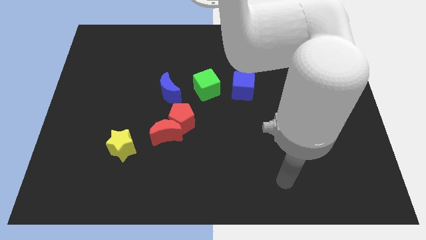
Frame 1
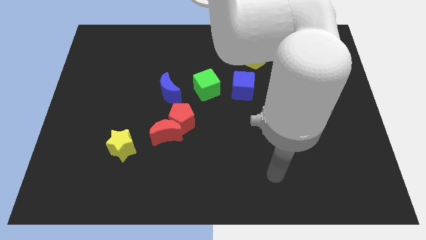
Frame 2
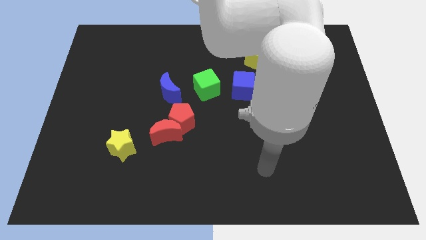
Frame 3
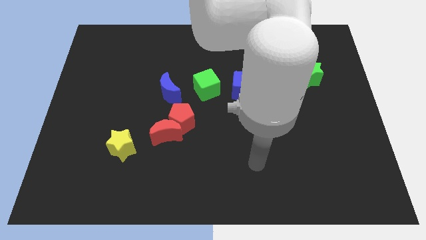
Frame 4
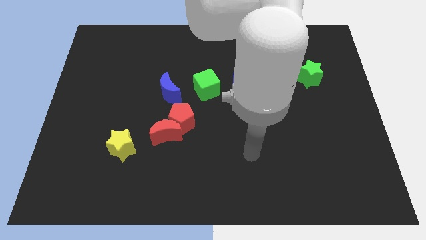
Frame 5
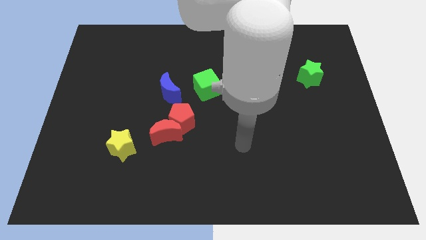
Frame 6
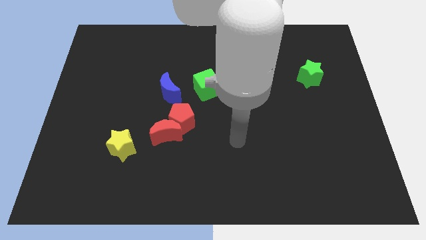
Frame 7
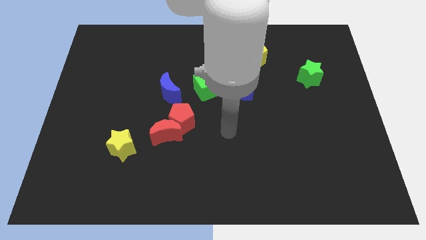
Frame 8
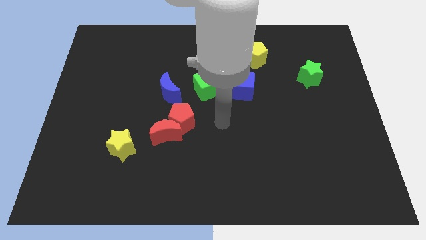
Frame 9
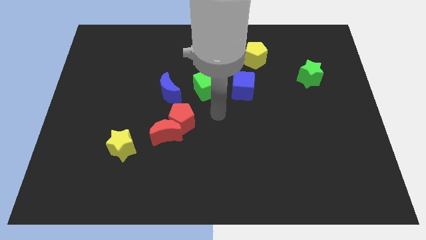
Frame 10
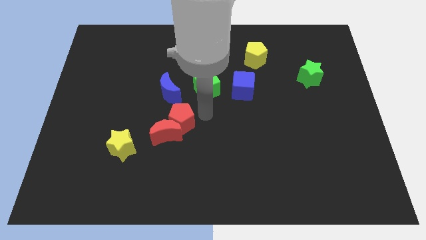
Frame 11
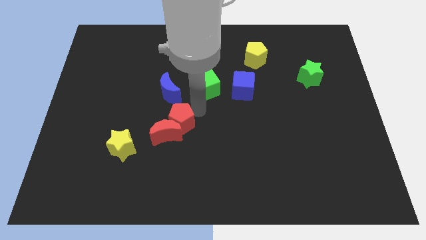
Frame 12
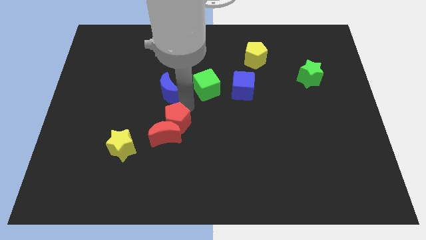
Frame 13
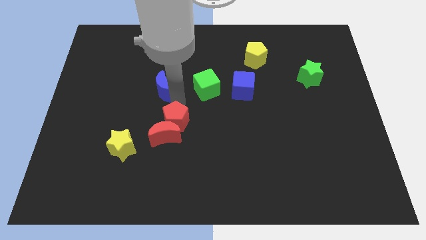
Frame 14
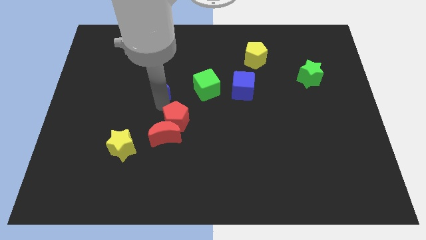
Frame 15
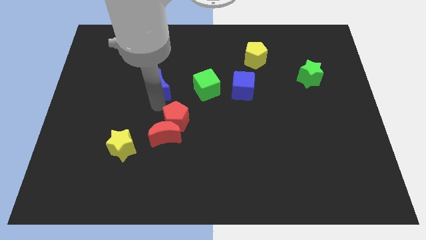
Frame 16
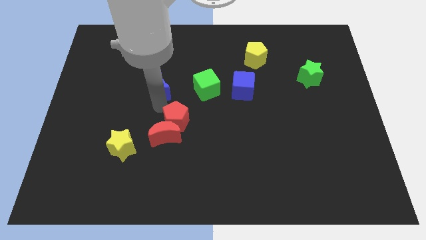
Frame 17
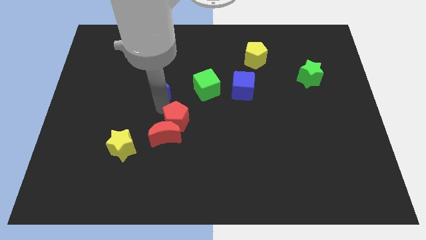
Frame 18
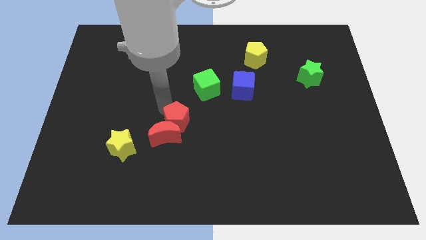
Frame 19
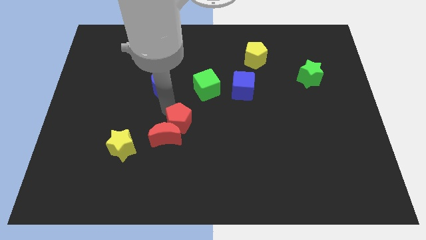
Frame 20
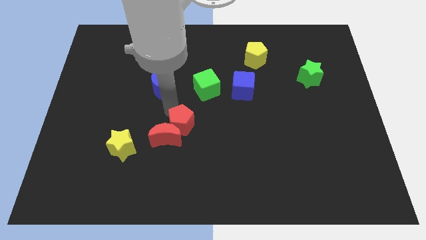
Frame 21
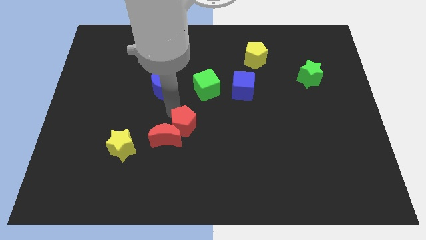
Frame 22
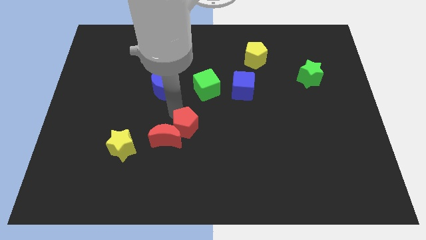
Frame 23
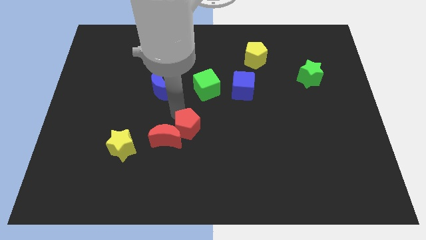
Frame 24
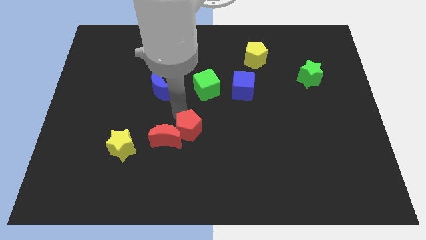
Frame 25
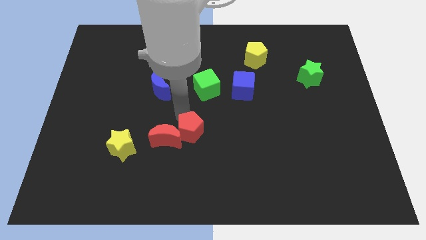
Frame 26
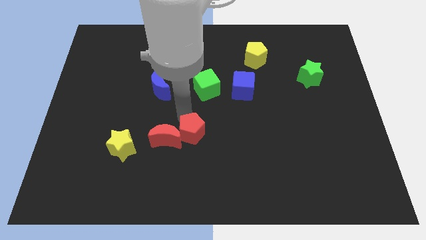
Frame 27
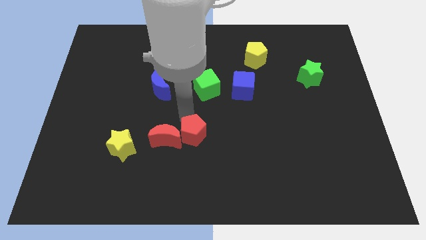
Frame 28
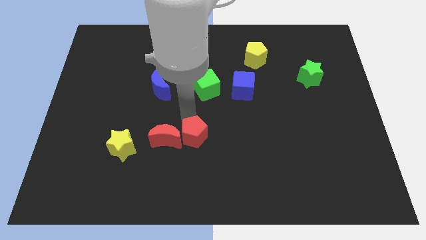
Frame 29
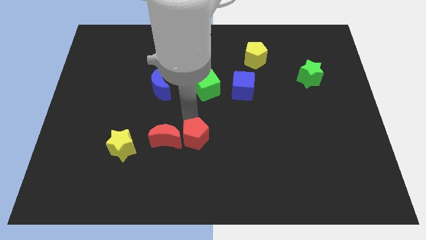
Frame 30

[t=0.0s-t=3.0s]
pull the red pentagon apart from the red moon and blue moon

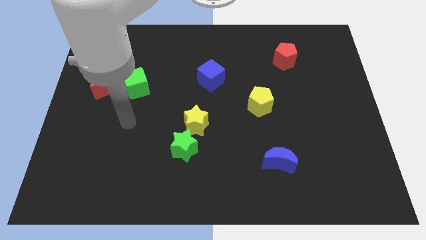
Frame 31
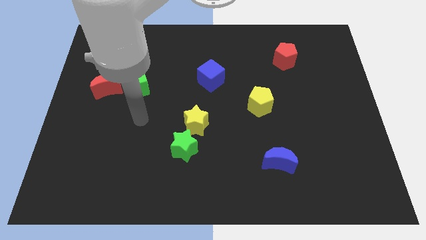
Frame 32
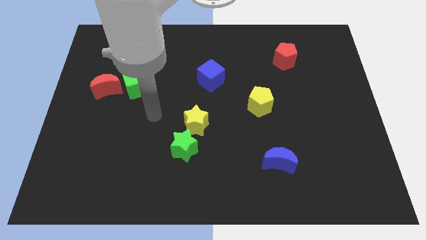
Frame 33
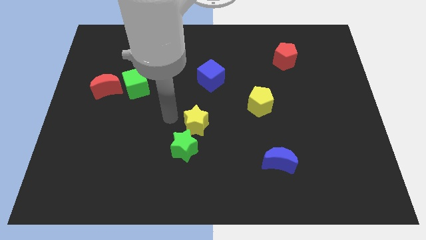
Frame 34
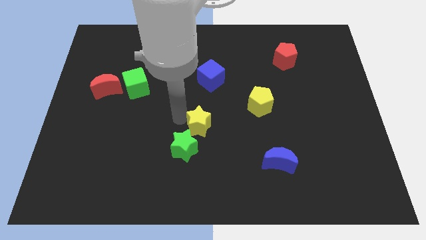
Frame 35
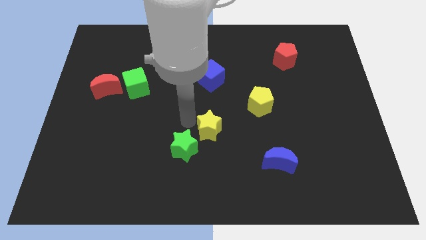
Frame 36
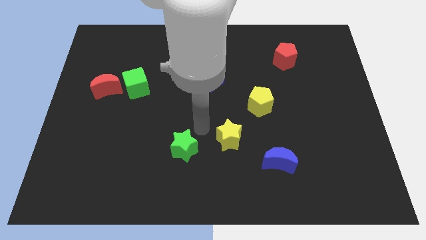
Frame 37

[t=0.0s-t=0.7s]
separate the green star from the yellow star

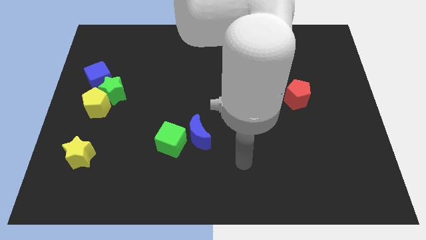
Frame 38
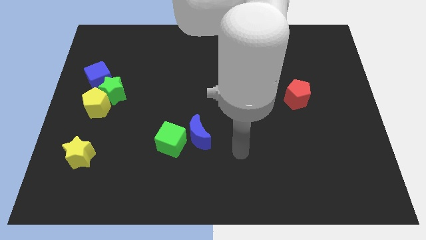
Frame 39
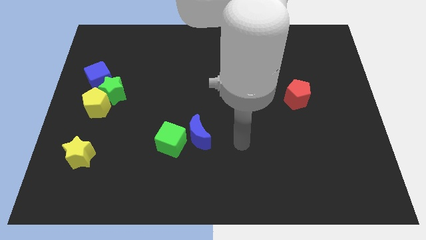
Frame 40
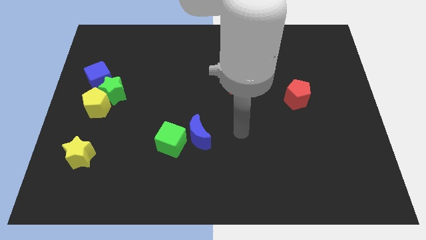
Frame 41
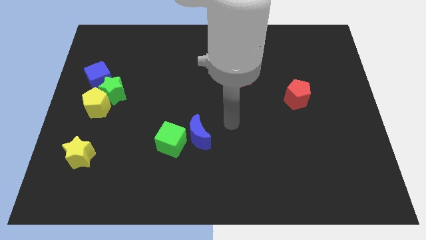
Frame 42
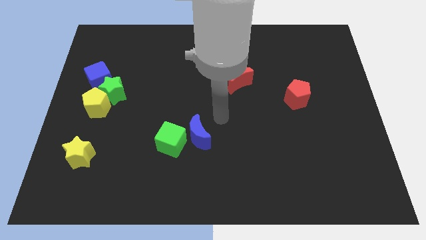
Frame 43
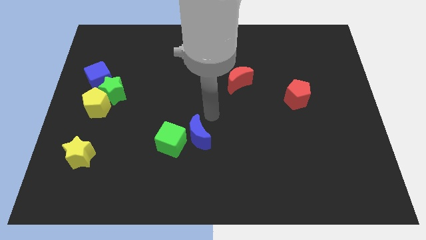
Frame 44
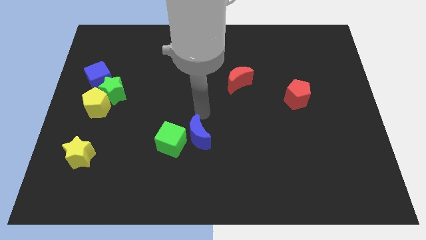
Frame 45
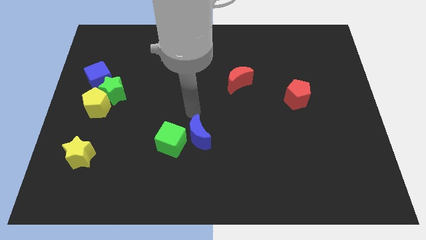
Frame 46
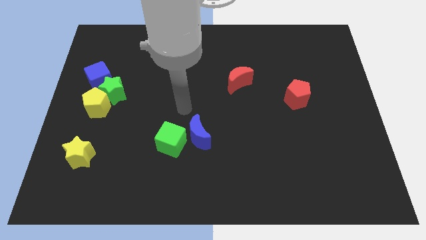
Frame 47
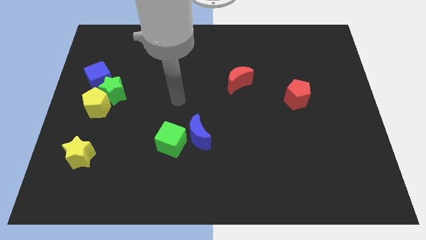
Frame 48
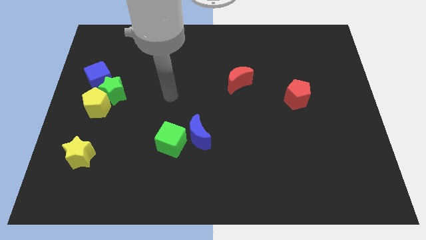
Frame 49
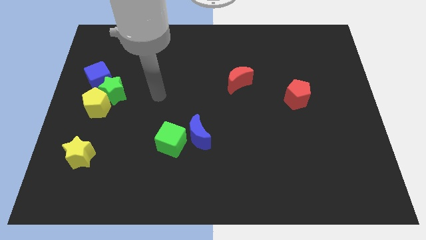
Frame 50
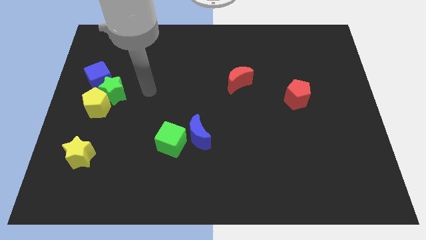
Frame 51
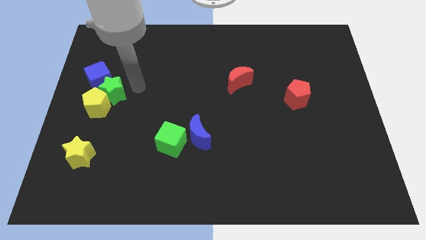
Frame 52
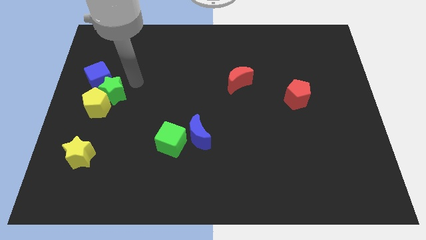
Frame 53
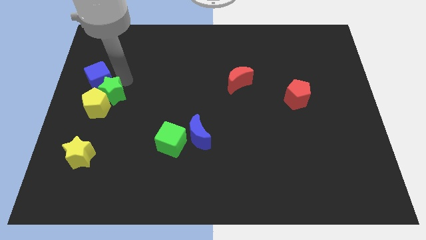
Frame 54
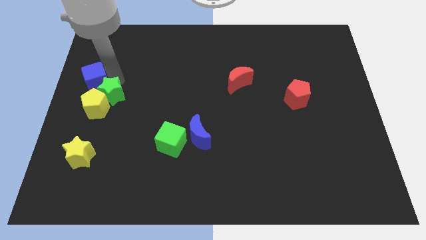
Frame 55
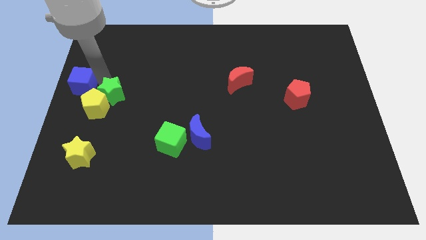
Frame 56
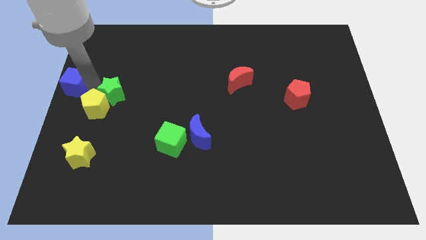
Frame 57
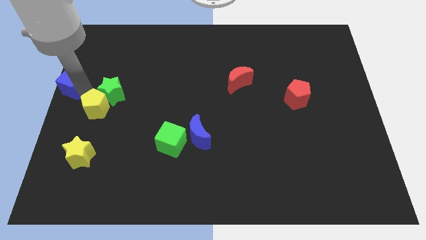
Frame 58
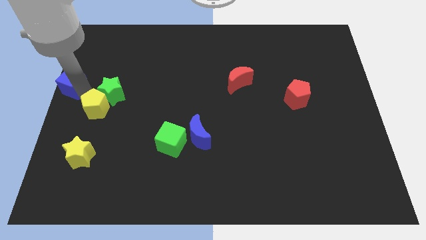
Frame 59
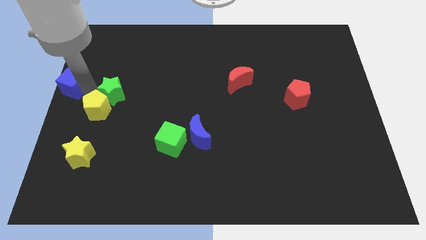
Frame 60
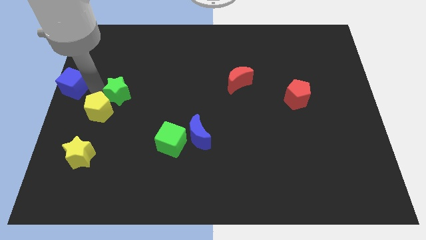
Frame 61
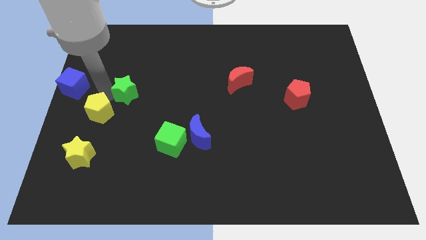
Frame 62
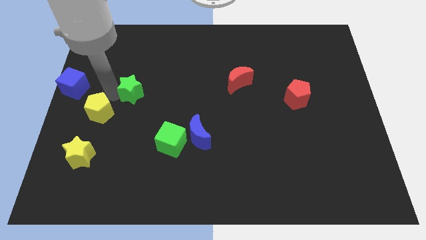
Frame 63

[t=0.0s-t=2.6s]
move the green star away from the yellow pentagon and blue cube

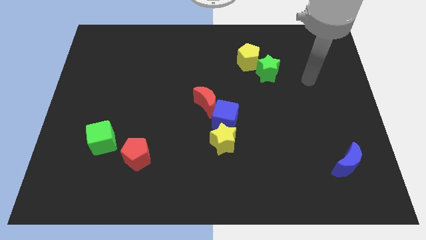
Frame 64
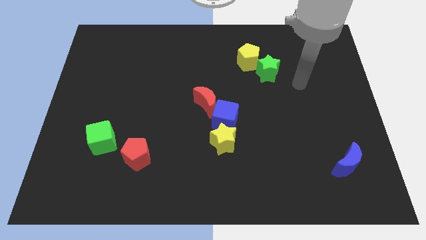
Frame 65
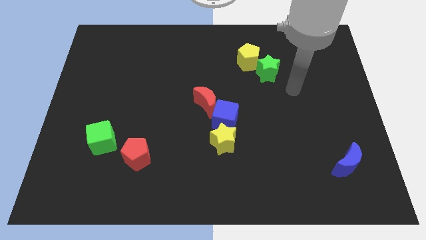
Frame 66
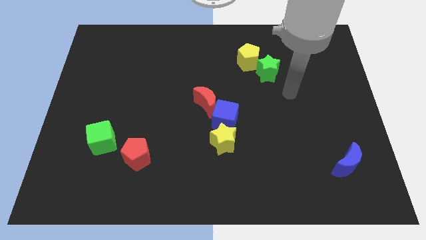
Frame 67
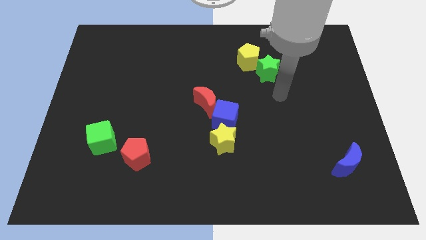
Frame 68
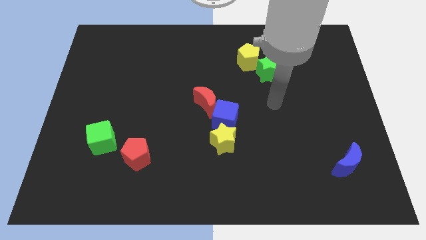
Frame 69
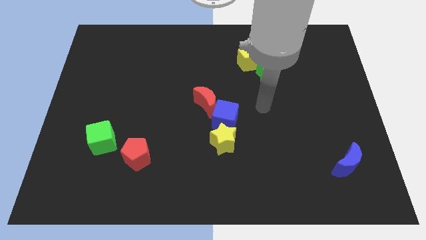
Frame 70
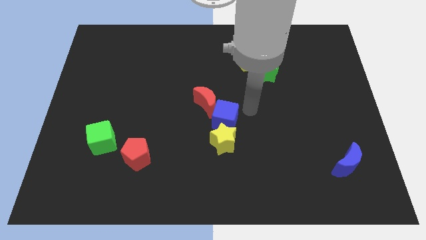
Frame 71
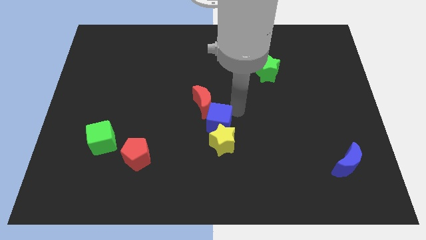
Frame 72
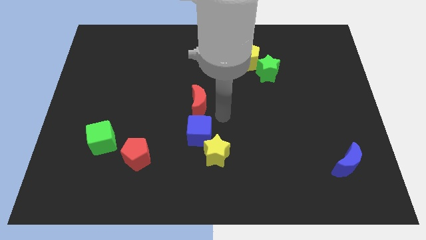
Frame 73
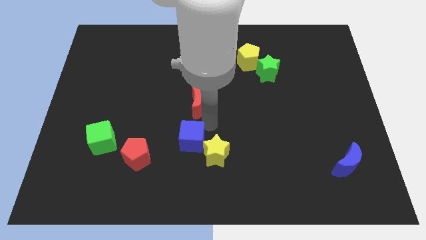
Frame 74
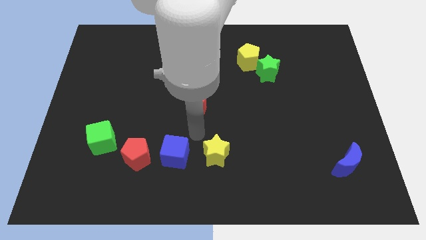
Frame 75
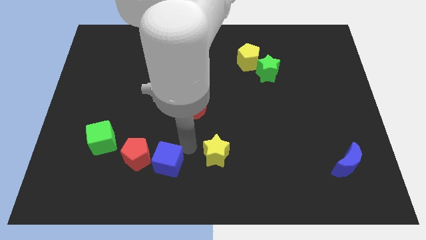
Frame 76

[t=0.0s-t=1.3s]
move the yellow star away from the blue cube

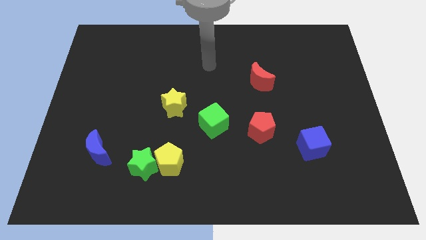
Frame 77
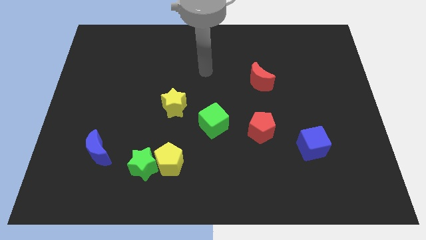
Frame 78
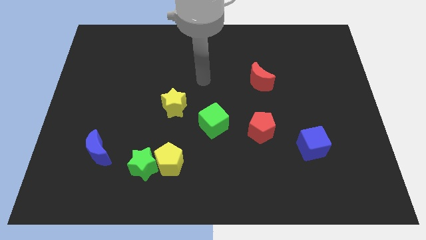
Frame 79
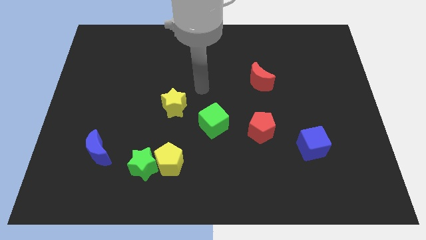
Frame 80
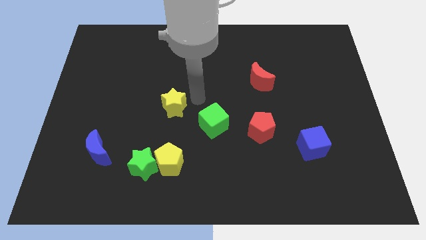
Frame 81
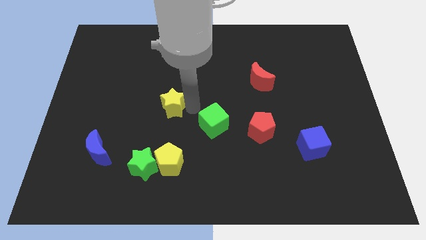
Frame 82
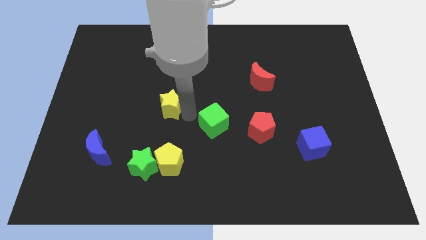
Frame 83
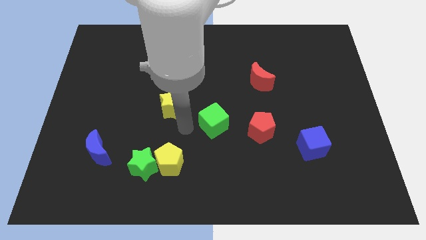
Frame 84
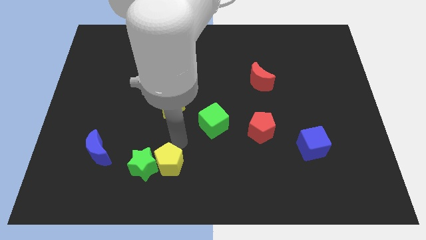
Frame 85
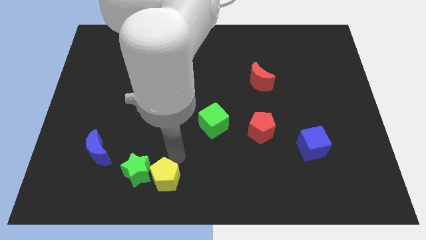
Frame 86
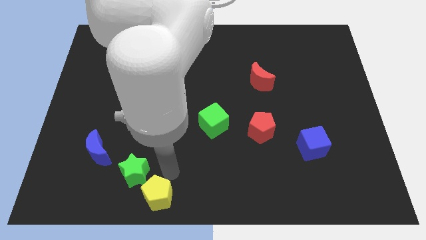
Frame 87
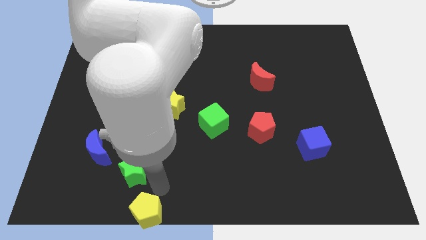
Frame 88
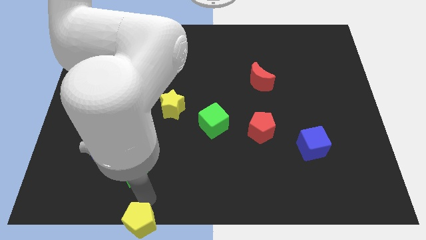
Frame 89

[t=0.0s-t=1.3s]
move the green star away from the yellow pentagon

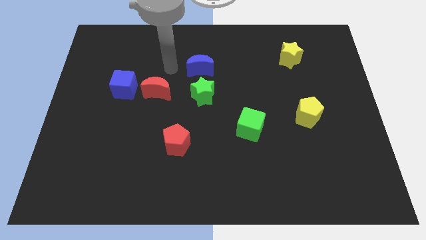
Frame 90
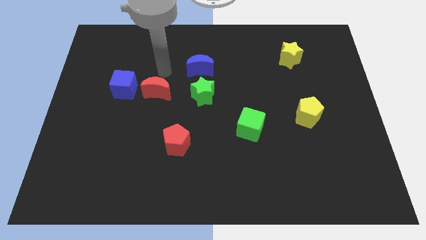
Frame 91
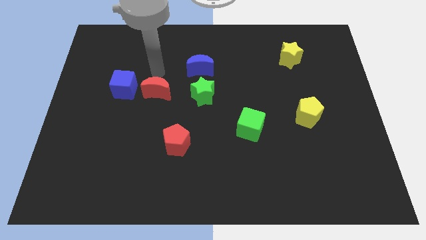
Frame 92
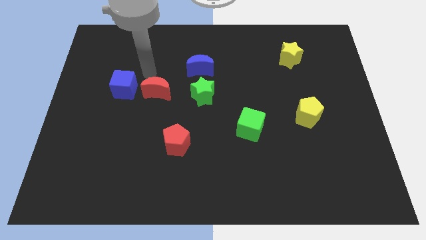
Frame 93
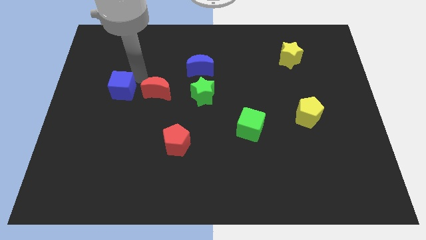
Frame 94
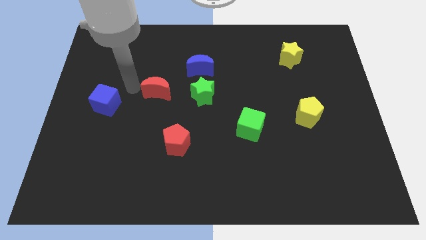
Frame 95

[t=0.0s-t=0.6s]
separate the red moon from the blue cube
